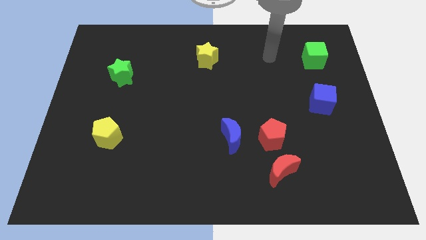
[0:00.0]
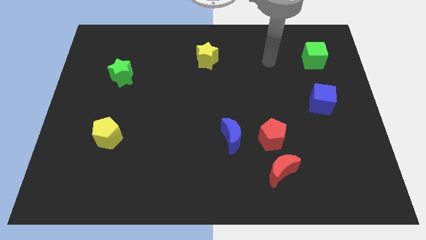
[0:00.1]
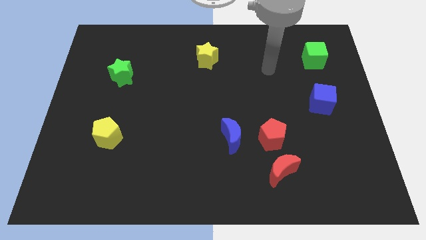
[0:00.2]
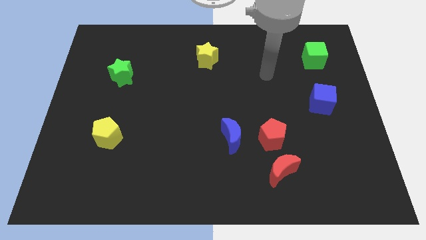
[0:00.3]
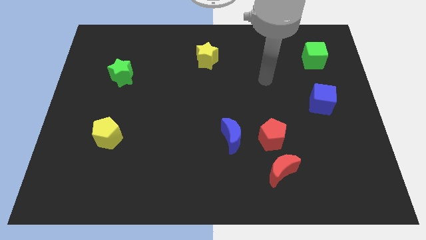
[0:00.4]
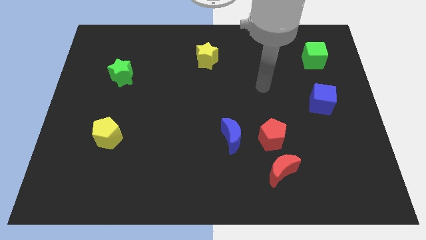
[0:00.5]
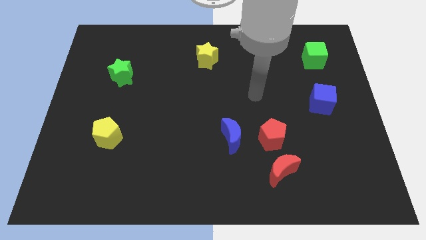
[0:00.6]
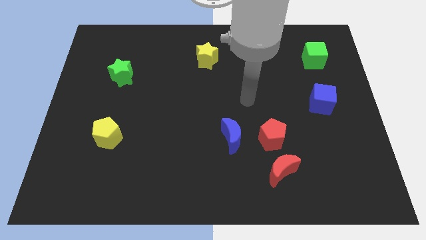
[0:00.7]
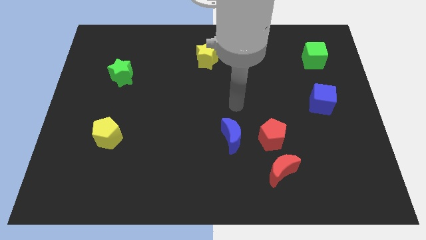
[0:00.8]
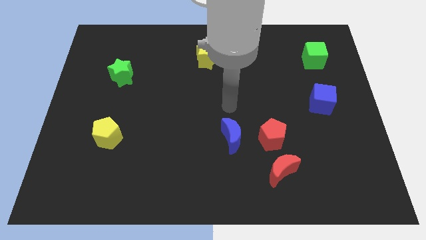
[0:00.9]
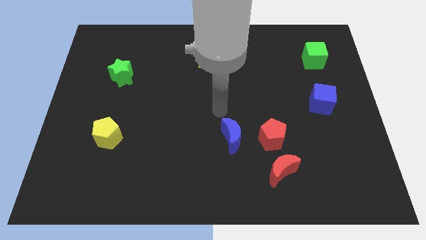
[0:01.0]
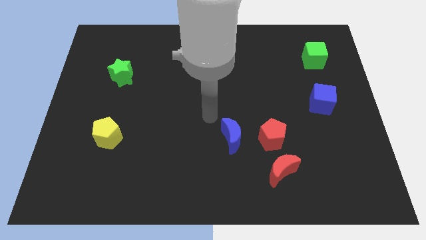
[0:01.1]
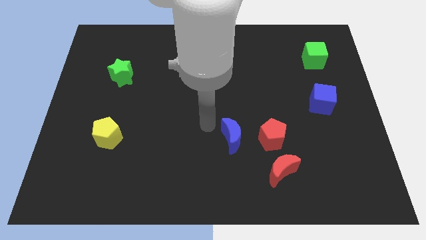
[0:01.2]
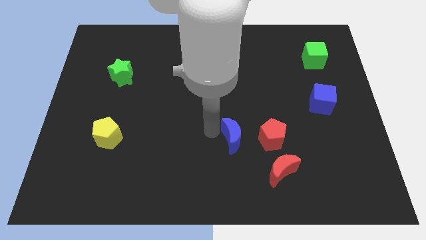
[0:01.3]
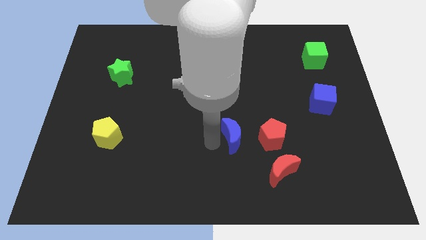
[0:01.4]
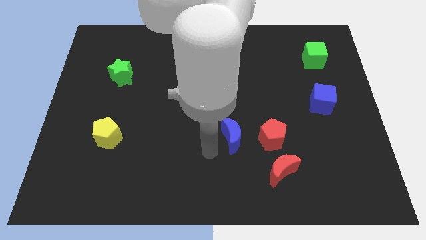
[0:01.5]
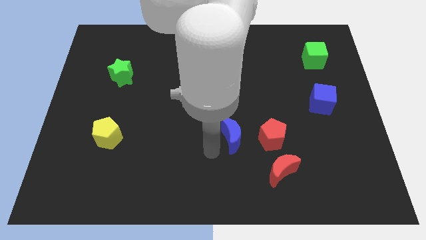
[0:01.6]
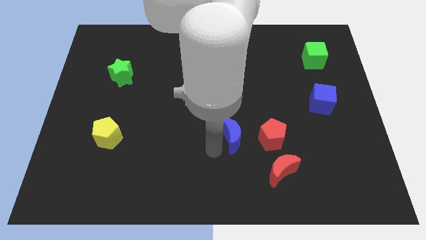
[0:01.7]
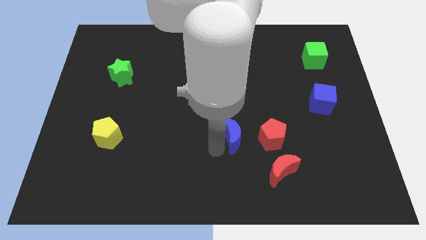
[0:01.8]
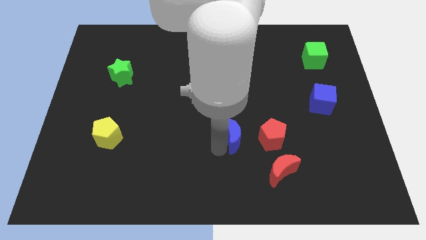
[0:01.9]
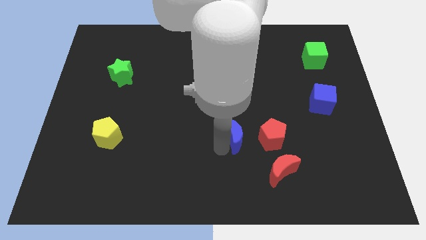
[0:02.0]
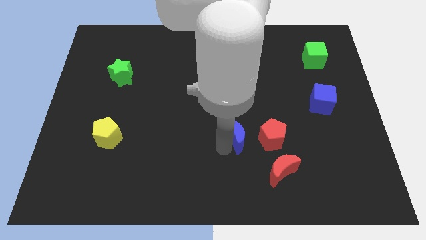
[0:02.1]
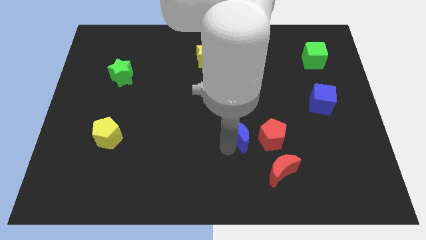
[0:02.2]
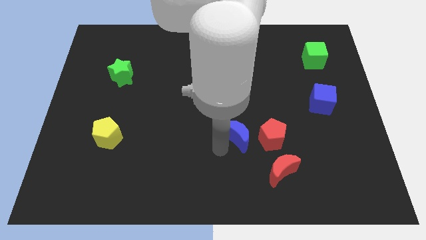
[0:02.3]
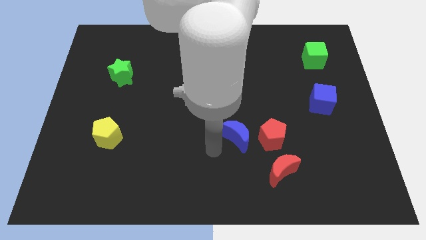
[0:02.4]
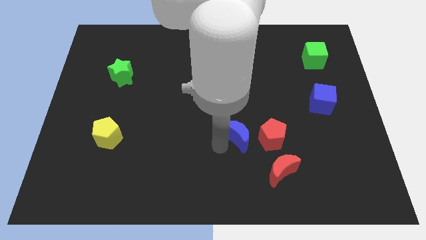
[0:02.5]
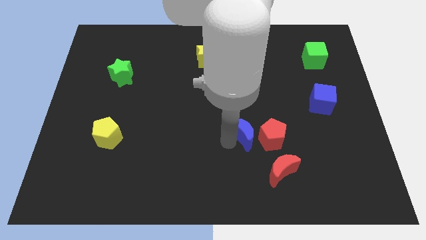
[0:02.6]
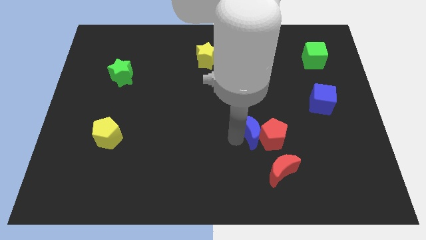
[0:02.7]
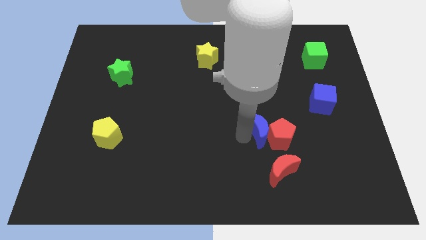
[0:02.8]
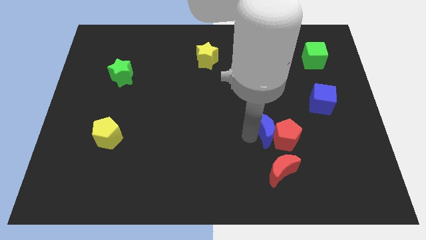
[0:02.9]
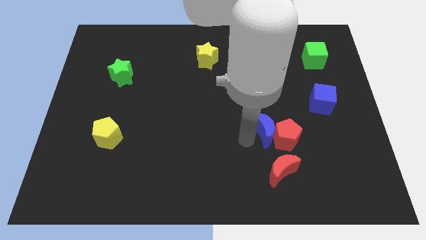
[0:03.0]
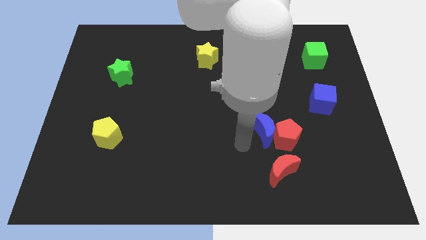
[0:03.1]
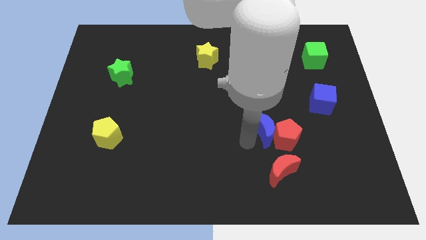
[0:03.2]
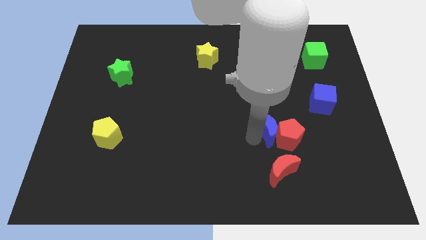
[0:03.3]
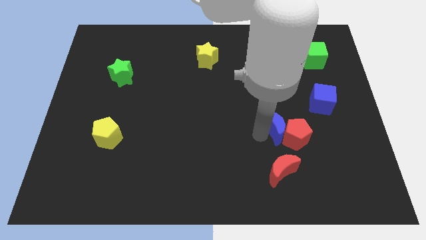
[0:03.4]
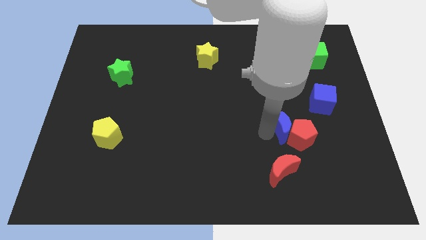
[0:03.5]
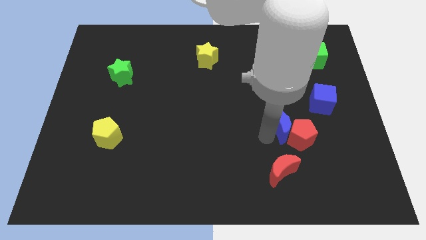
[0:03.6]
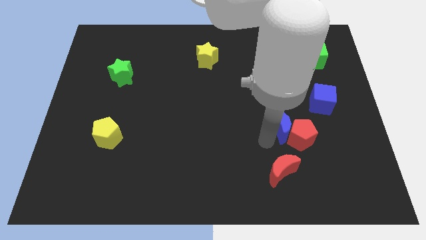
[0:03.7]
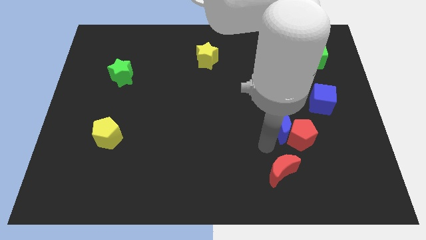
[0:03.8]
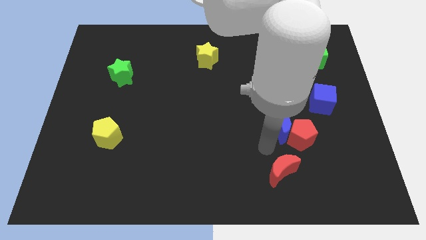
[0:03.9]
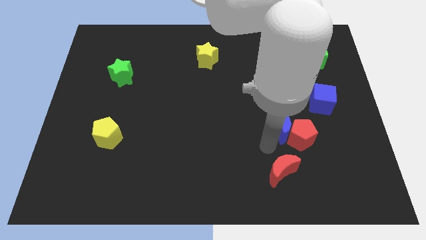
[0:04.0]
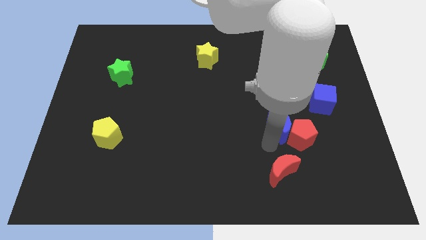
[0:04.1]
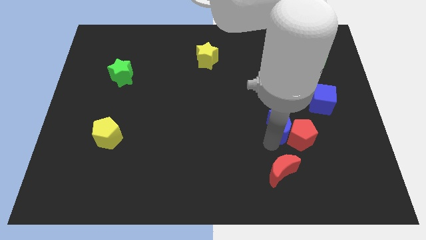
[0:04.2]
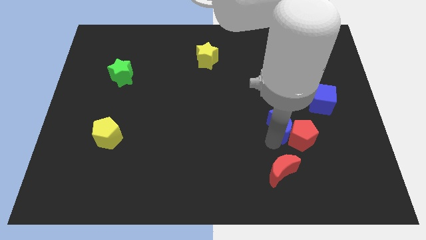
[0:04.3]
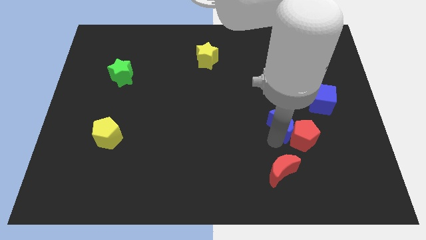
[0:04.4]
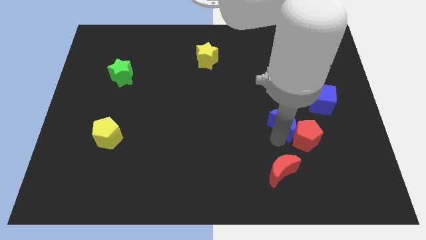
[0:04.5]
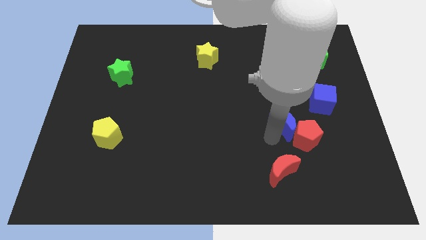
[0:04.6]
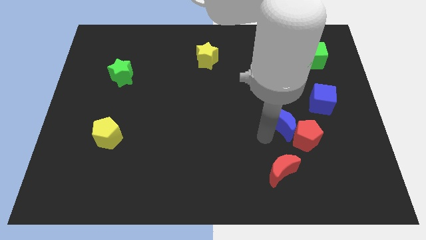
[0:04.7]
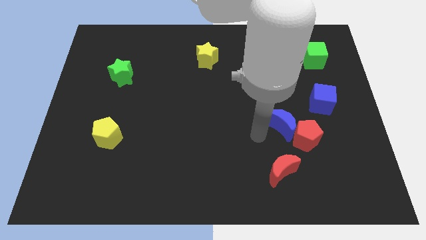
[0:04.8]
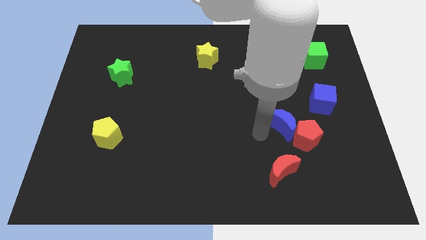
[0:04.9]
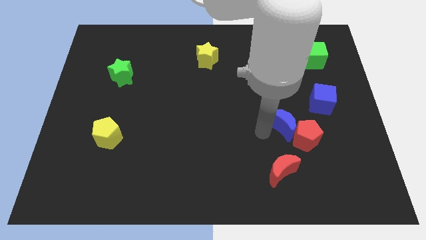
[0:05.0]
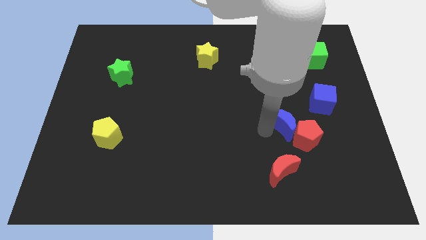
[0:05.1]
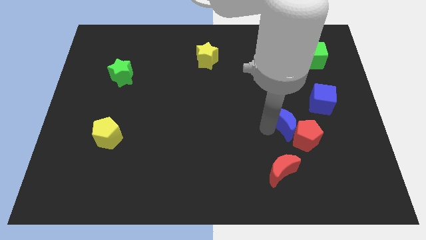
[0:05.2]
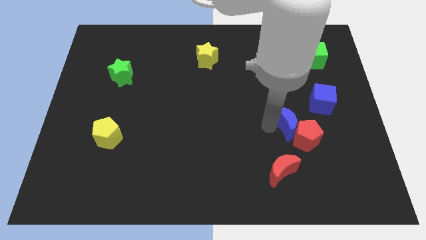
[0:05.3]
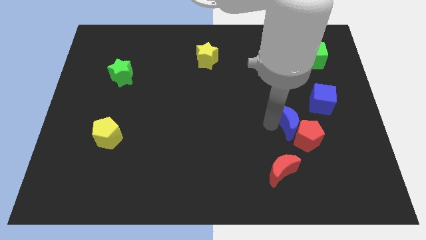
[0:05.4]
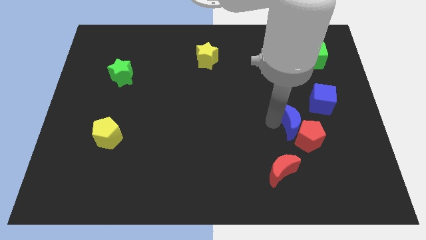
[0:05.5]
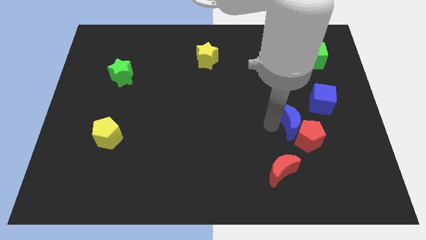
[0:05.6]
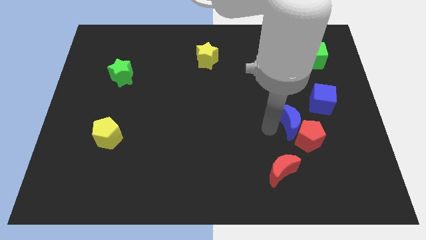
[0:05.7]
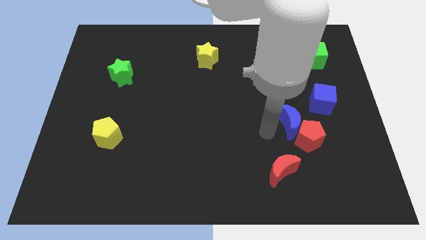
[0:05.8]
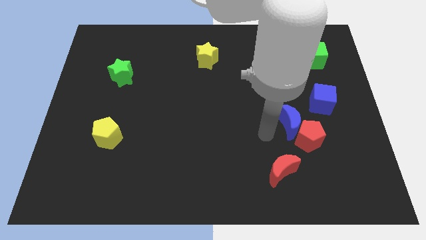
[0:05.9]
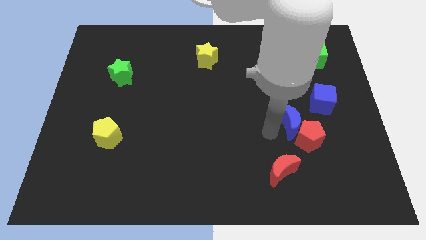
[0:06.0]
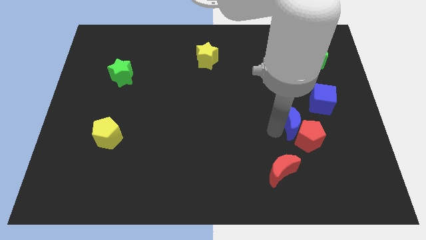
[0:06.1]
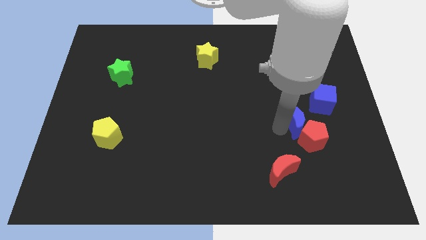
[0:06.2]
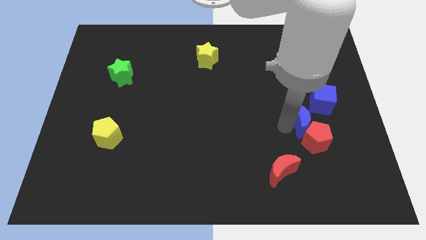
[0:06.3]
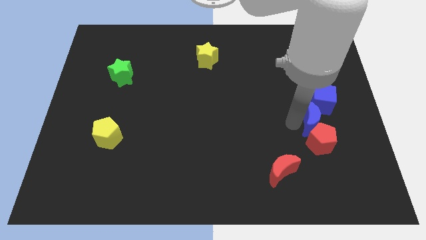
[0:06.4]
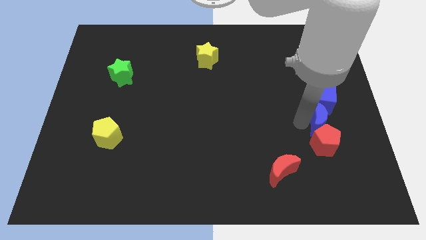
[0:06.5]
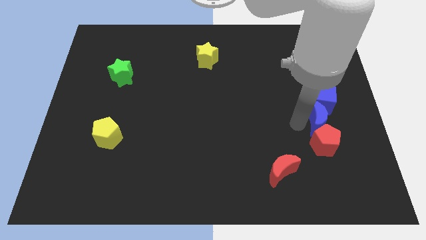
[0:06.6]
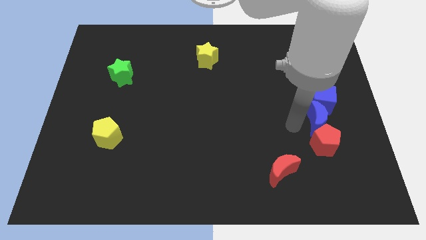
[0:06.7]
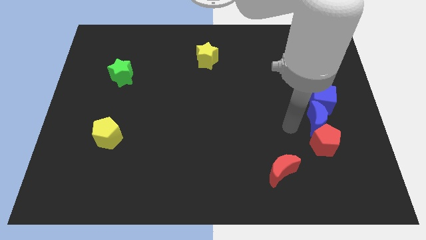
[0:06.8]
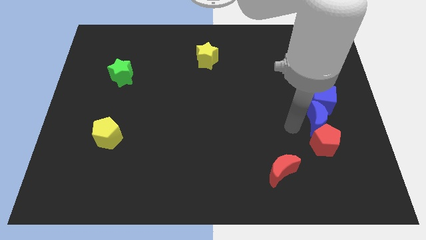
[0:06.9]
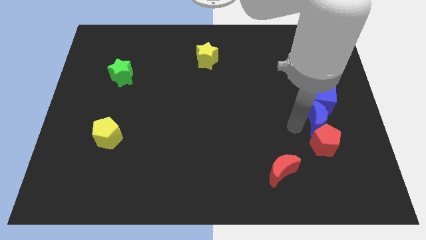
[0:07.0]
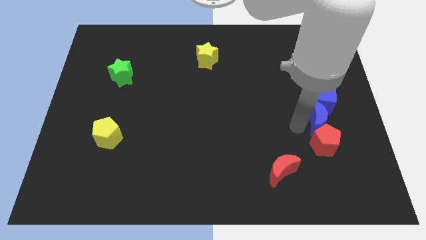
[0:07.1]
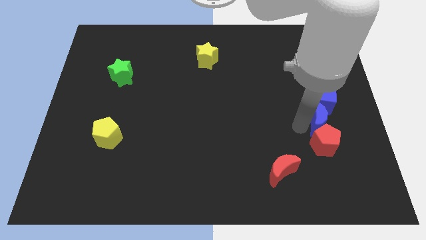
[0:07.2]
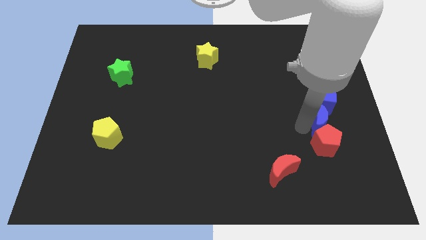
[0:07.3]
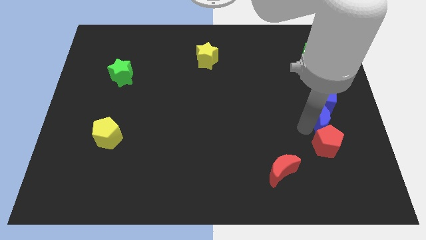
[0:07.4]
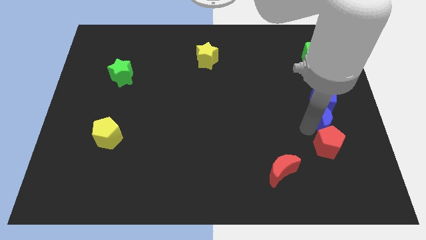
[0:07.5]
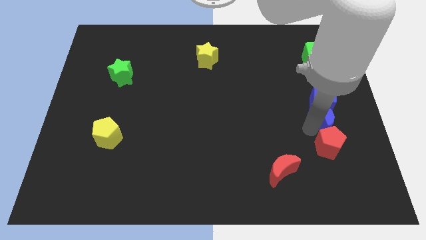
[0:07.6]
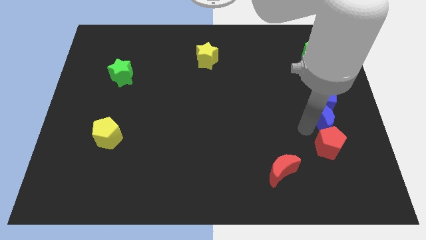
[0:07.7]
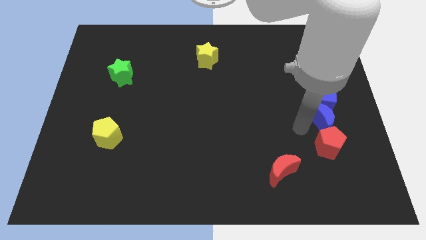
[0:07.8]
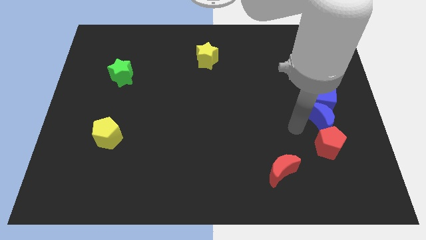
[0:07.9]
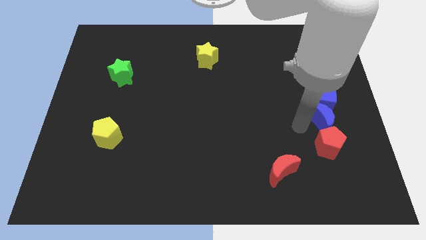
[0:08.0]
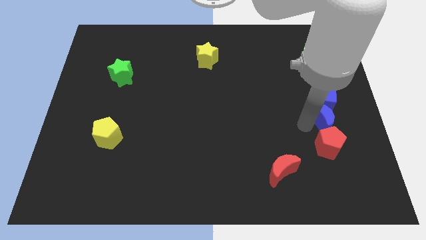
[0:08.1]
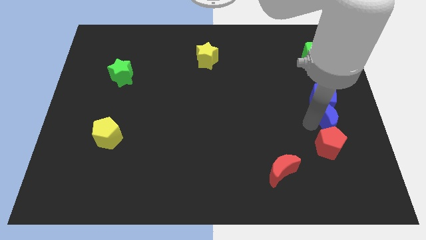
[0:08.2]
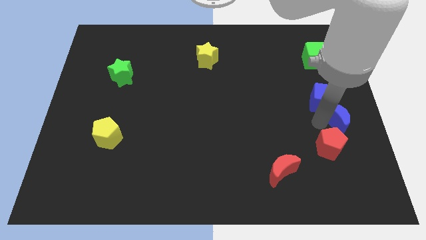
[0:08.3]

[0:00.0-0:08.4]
put the blue moon to the right side
